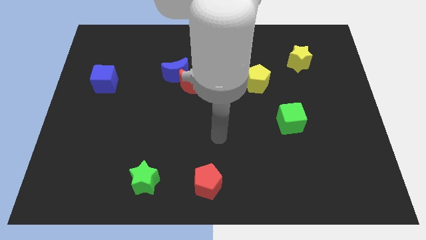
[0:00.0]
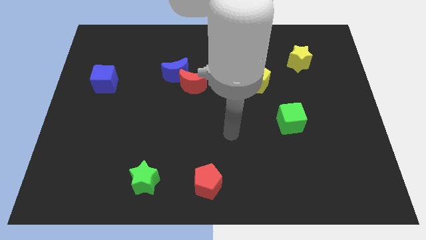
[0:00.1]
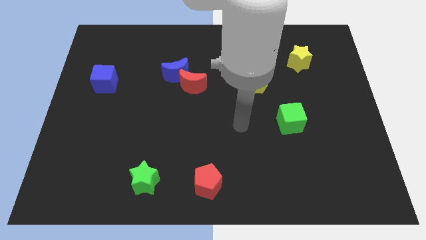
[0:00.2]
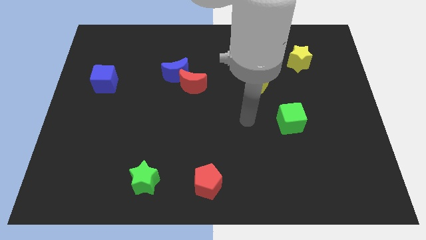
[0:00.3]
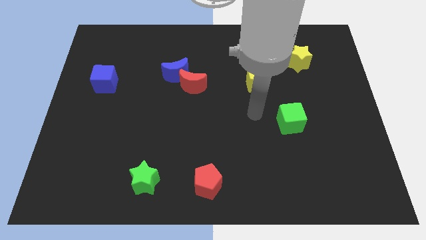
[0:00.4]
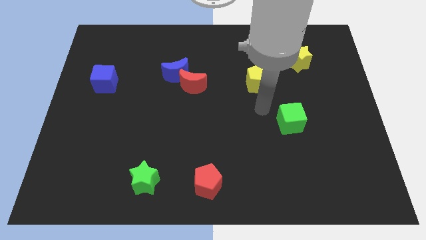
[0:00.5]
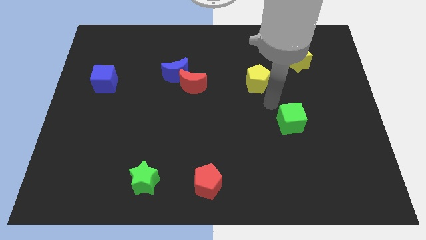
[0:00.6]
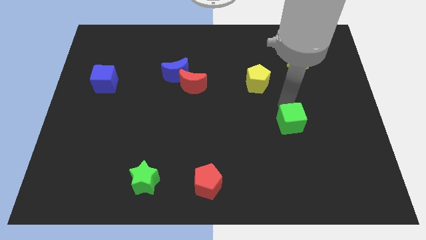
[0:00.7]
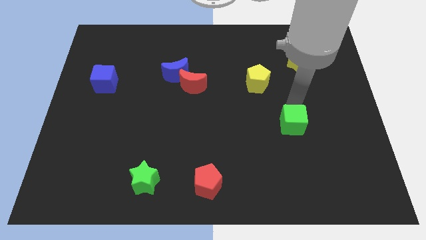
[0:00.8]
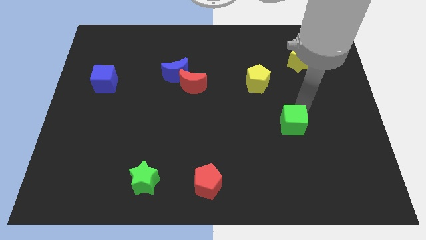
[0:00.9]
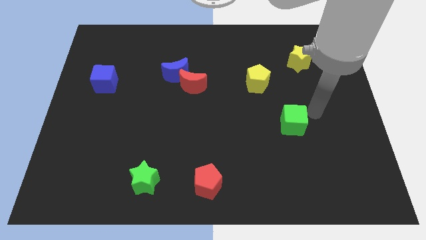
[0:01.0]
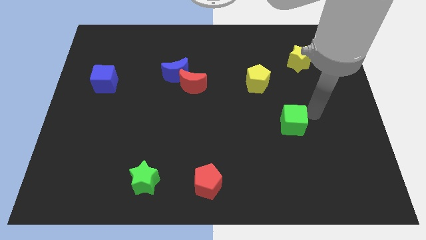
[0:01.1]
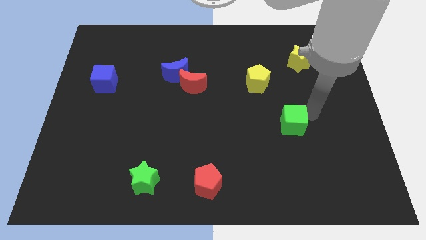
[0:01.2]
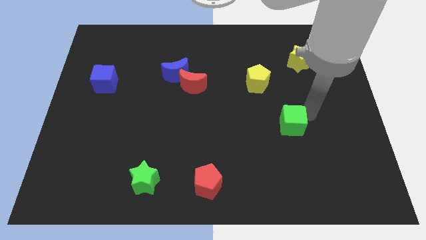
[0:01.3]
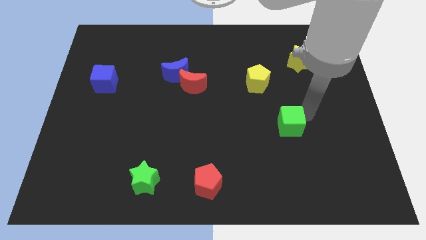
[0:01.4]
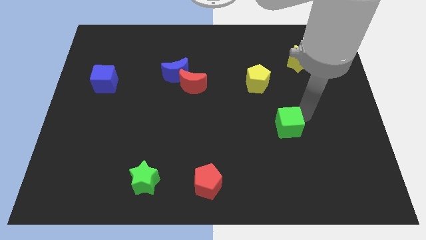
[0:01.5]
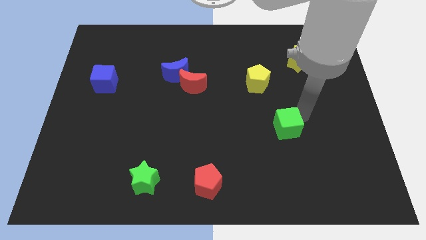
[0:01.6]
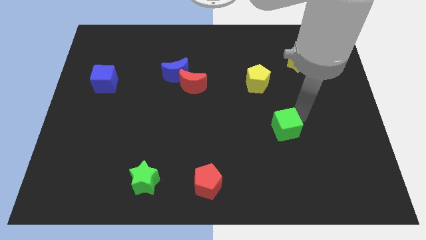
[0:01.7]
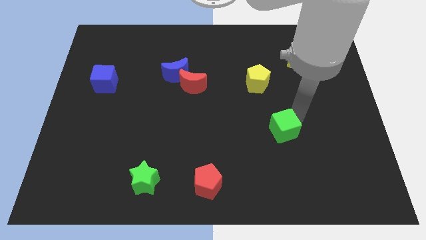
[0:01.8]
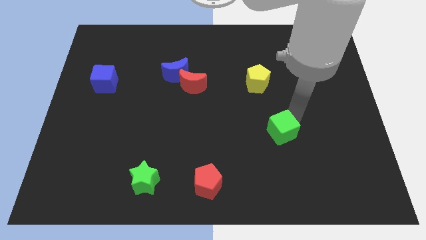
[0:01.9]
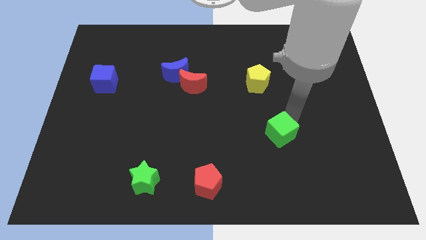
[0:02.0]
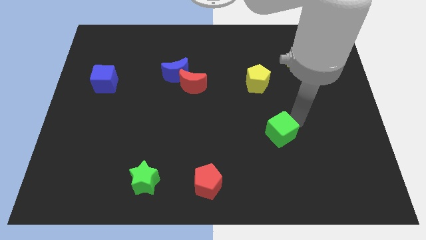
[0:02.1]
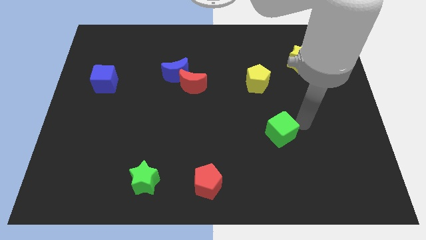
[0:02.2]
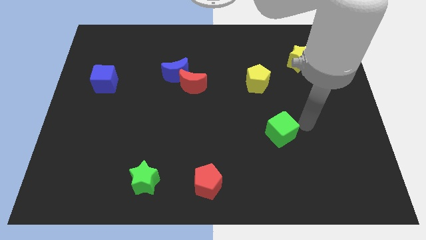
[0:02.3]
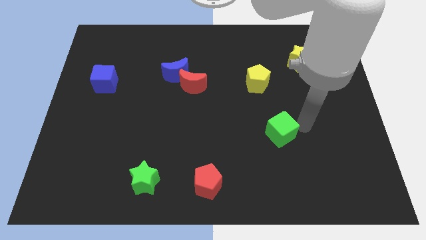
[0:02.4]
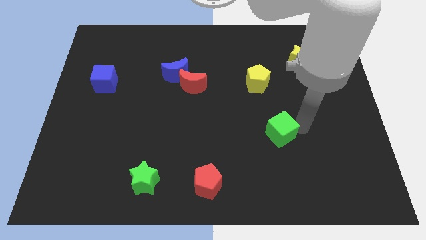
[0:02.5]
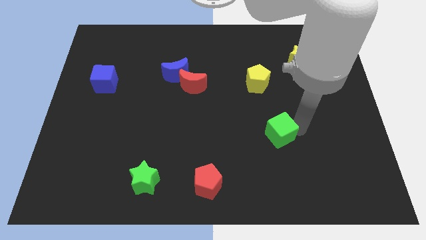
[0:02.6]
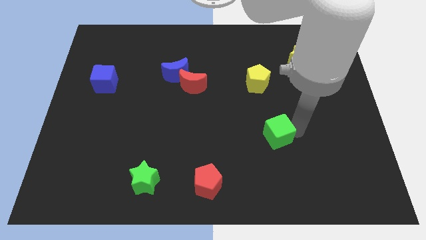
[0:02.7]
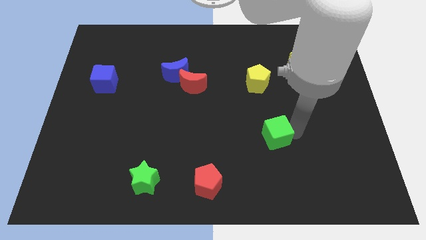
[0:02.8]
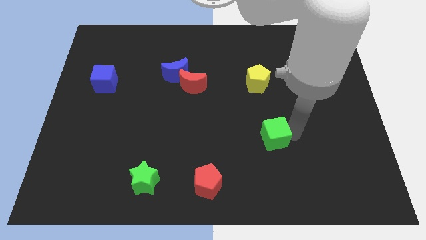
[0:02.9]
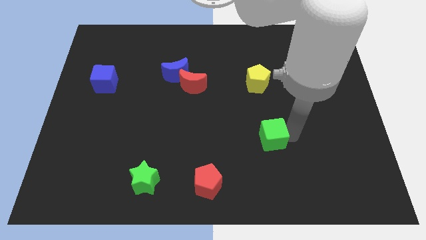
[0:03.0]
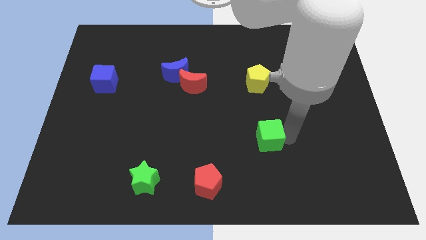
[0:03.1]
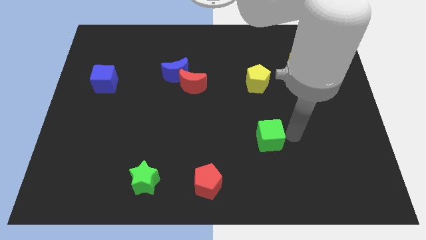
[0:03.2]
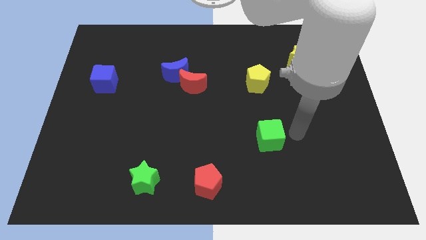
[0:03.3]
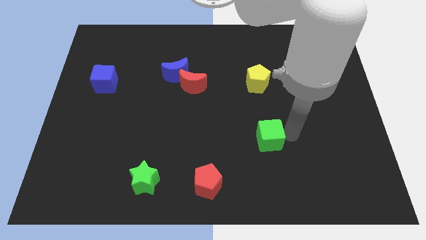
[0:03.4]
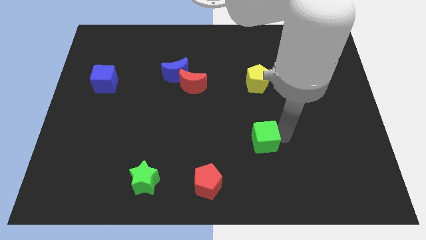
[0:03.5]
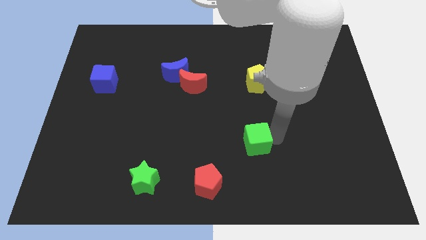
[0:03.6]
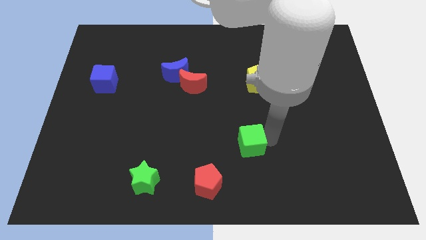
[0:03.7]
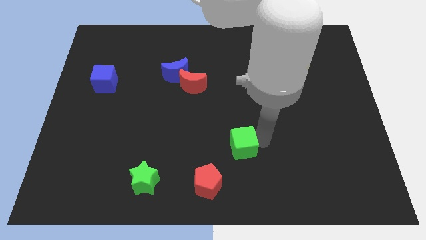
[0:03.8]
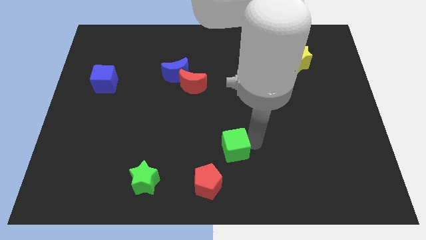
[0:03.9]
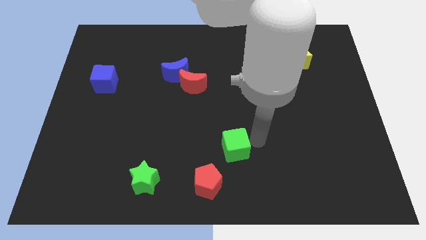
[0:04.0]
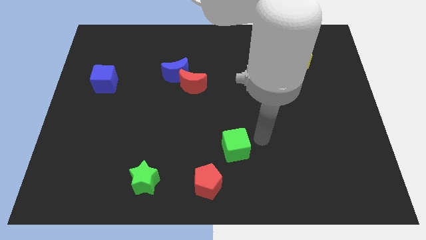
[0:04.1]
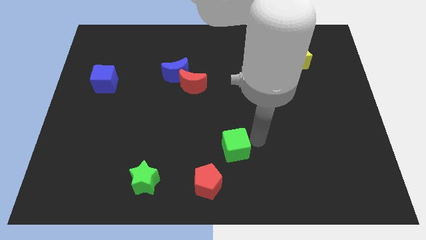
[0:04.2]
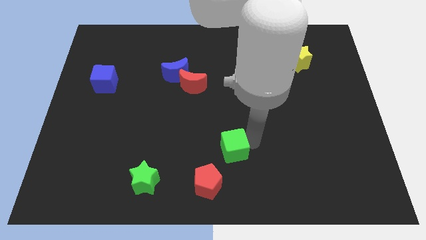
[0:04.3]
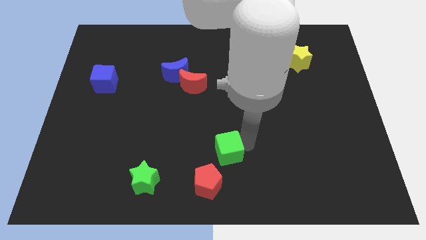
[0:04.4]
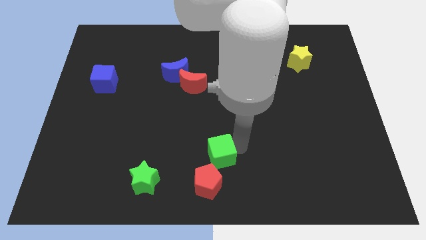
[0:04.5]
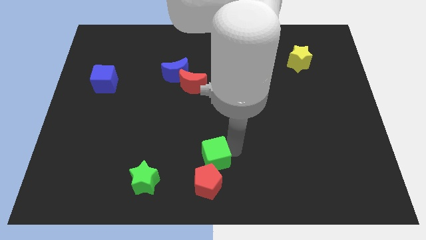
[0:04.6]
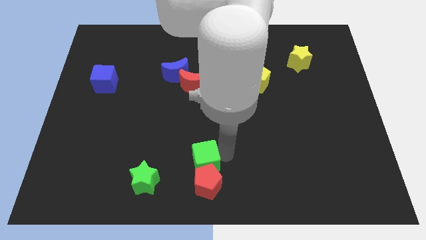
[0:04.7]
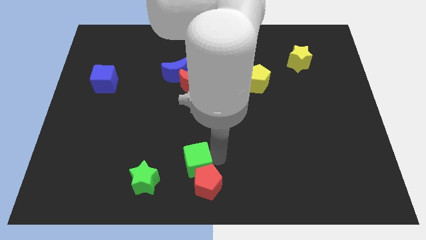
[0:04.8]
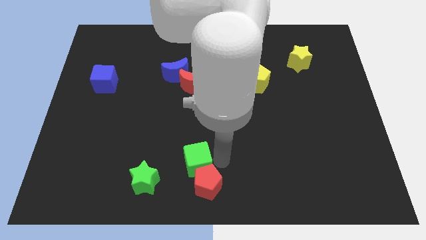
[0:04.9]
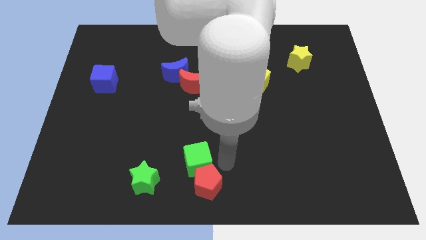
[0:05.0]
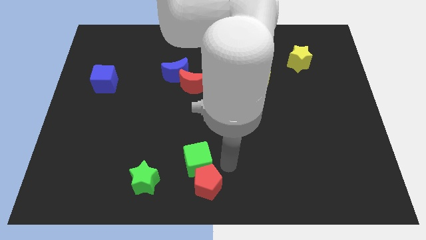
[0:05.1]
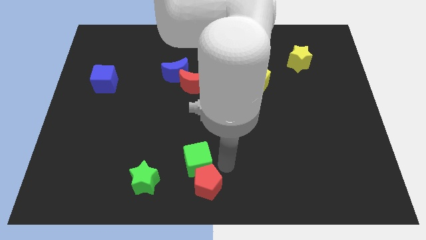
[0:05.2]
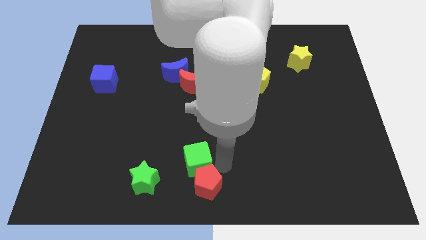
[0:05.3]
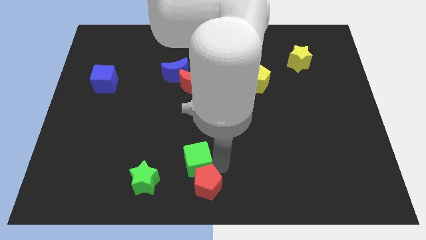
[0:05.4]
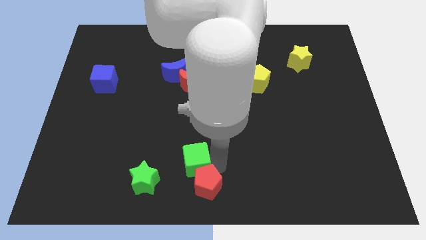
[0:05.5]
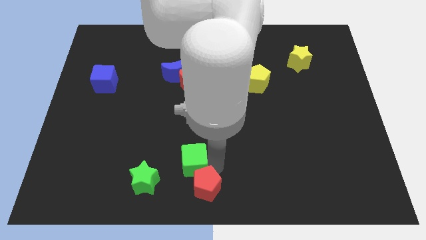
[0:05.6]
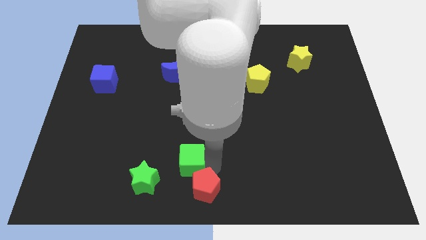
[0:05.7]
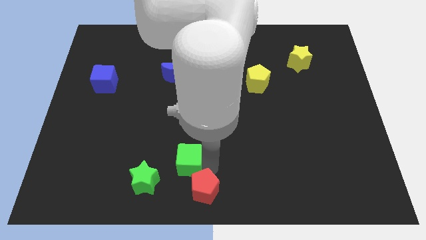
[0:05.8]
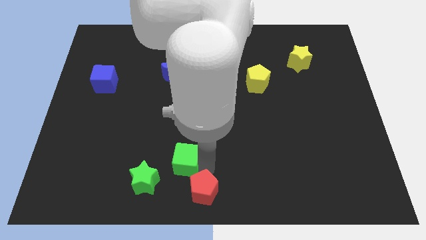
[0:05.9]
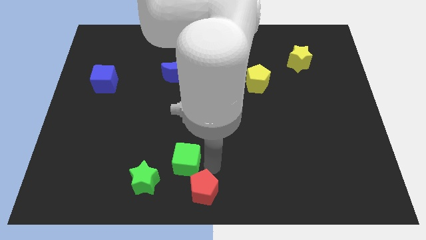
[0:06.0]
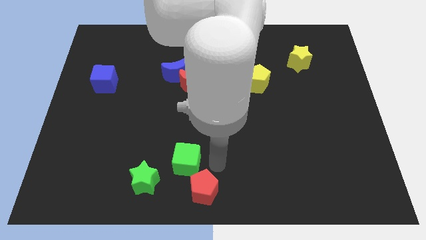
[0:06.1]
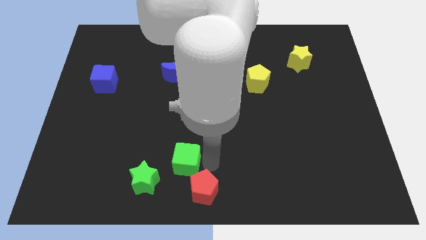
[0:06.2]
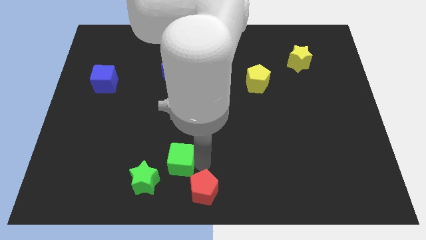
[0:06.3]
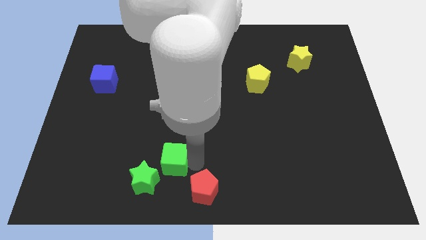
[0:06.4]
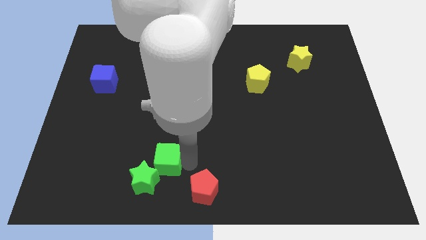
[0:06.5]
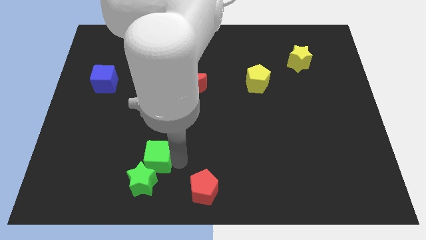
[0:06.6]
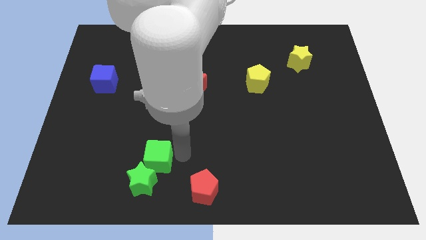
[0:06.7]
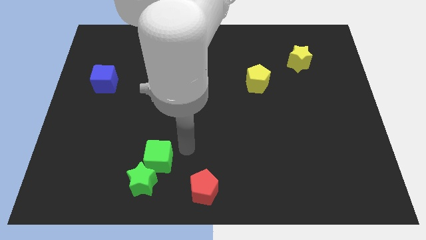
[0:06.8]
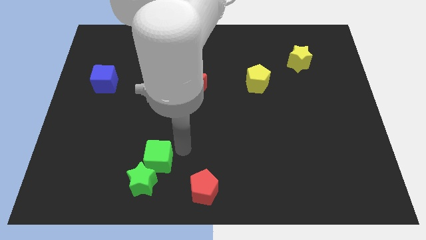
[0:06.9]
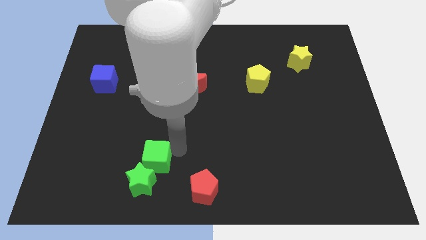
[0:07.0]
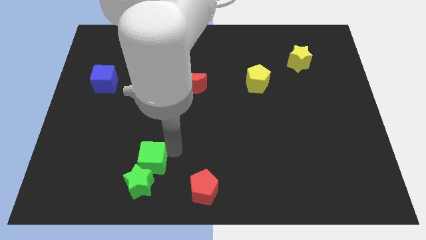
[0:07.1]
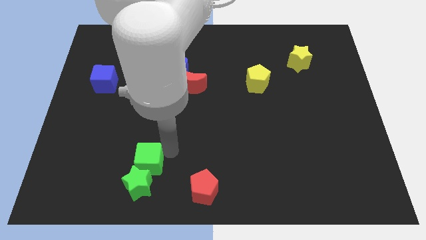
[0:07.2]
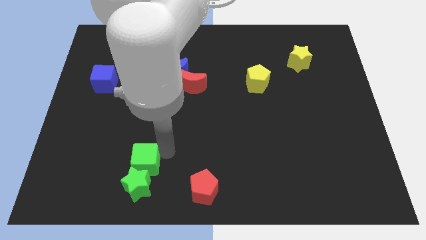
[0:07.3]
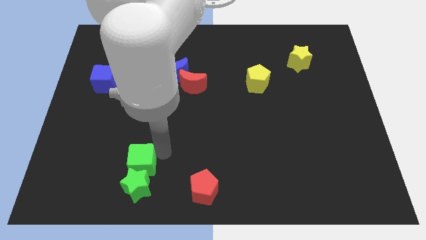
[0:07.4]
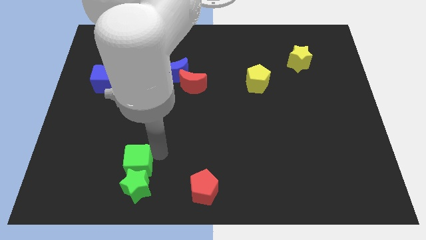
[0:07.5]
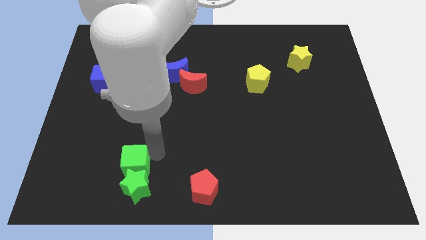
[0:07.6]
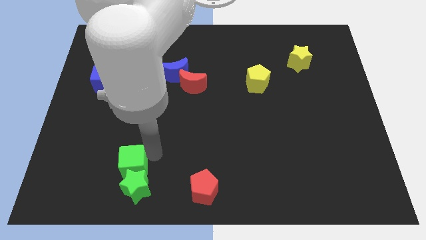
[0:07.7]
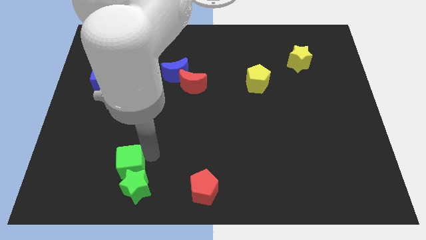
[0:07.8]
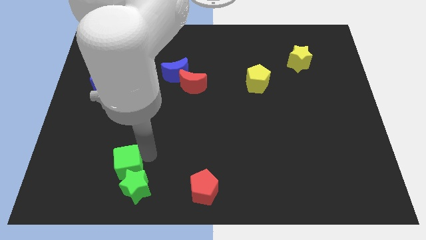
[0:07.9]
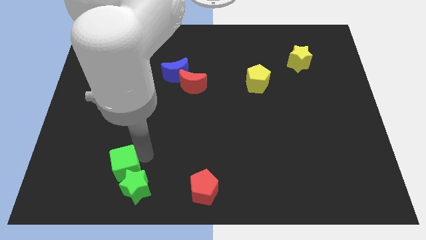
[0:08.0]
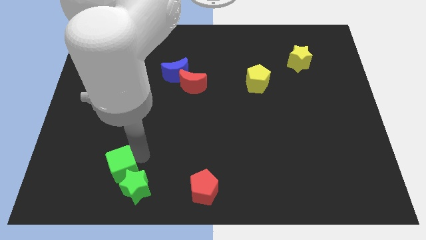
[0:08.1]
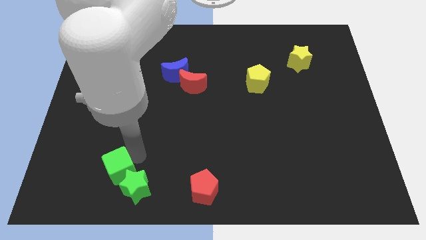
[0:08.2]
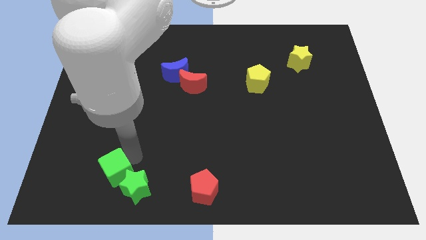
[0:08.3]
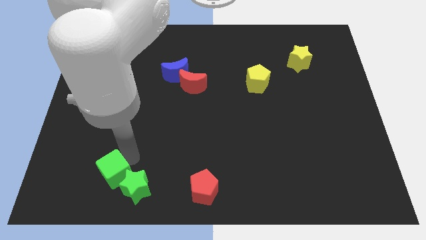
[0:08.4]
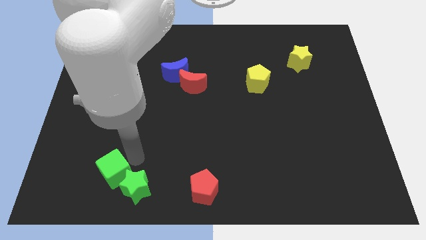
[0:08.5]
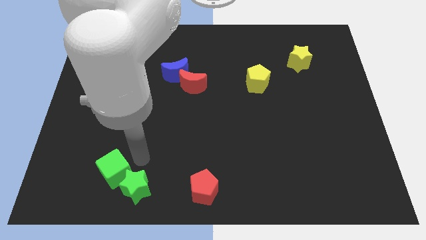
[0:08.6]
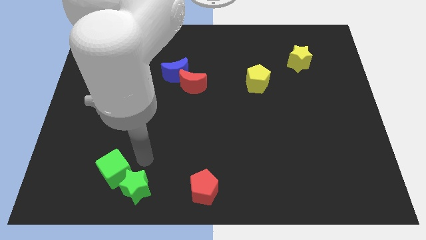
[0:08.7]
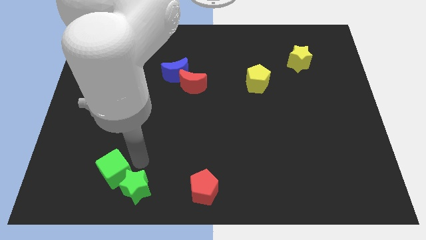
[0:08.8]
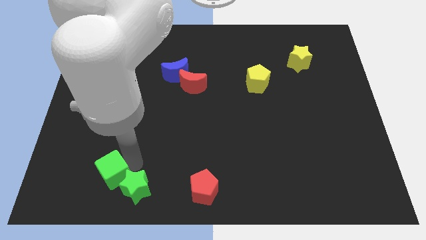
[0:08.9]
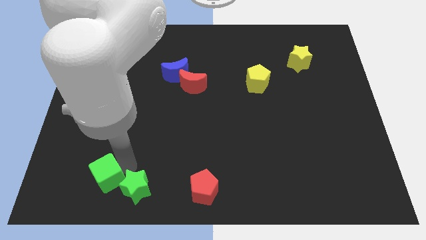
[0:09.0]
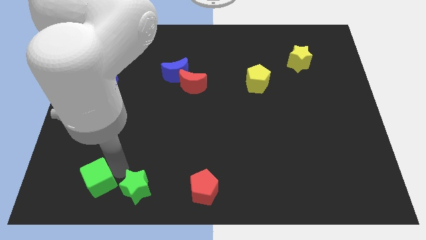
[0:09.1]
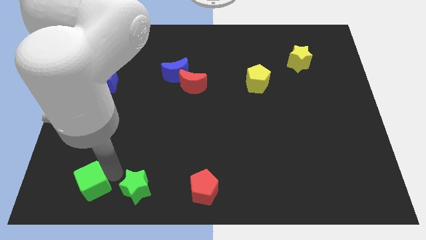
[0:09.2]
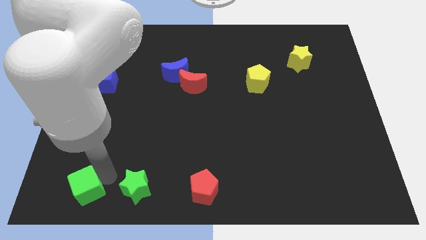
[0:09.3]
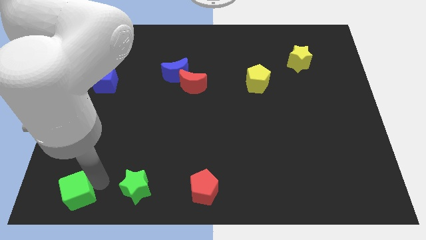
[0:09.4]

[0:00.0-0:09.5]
push the green cube to the bottom left corner
